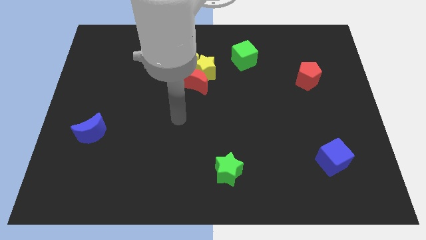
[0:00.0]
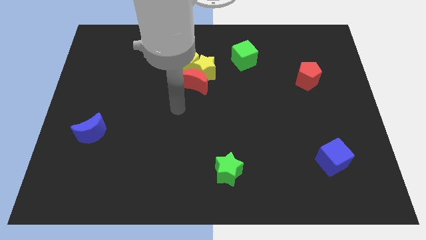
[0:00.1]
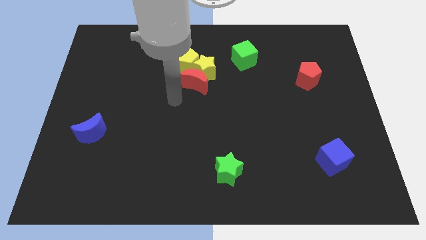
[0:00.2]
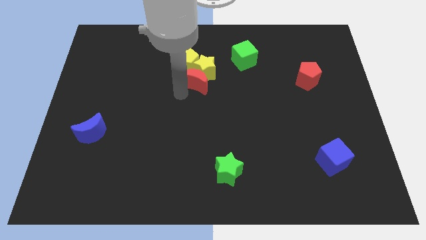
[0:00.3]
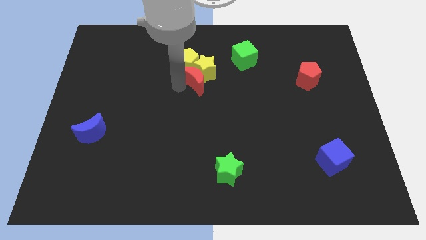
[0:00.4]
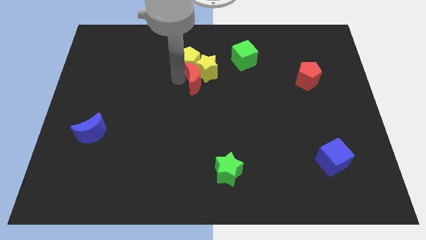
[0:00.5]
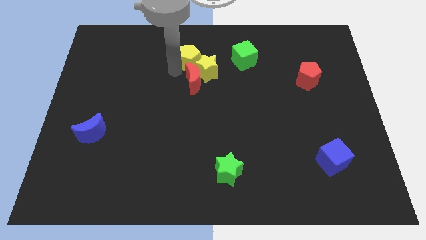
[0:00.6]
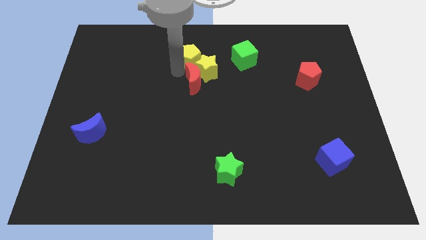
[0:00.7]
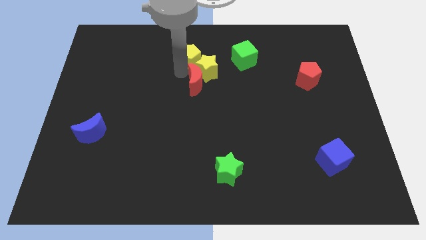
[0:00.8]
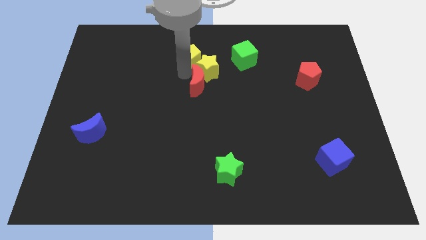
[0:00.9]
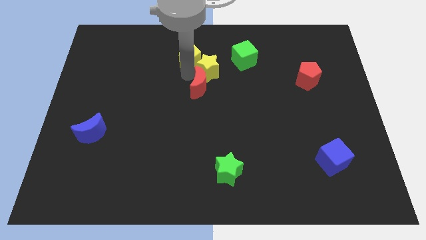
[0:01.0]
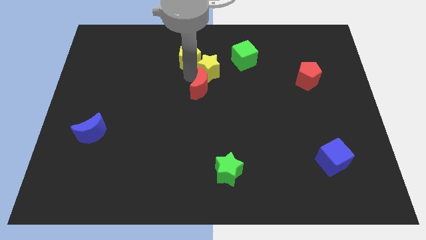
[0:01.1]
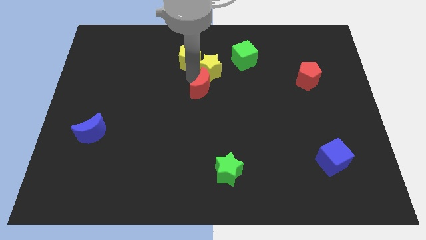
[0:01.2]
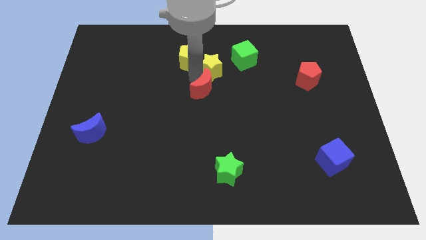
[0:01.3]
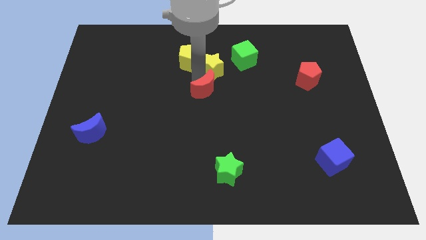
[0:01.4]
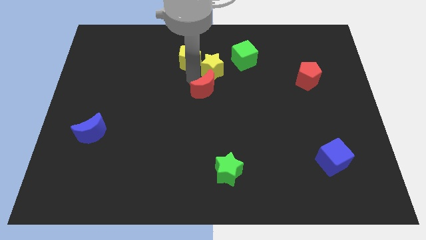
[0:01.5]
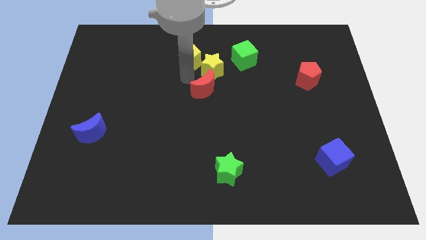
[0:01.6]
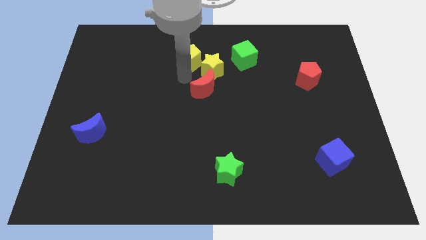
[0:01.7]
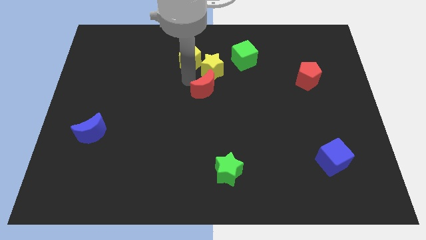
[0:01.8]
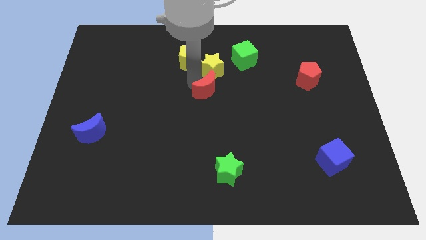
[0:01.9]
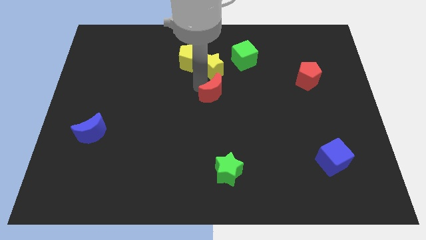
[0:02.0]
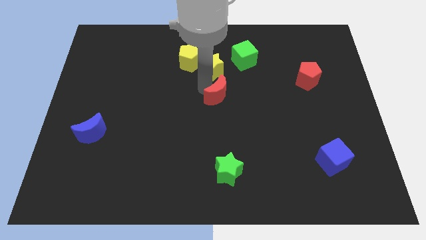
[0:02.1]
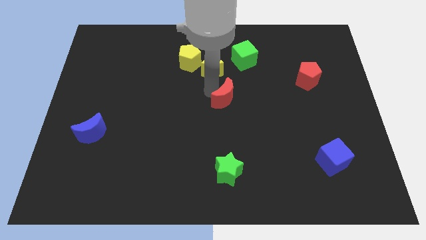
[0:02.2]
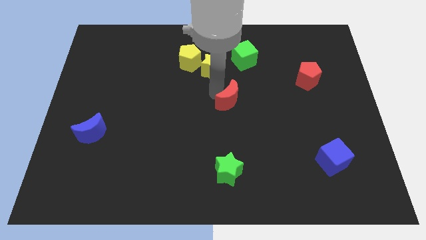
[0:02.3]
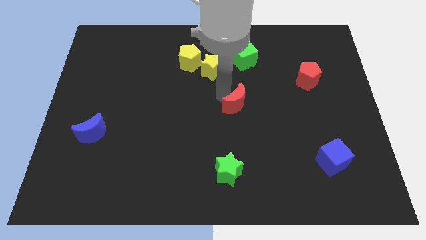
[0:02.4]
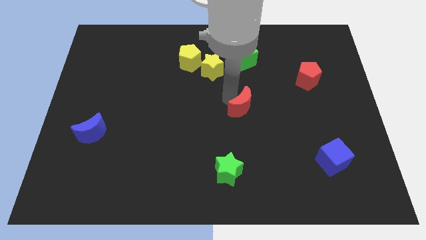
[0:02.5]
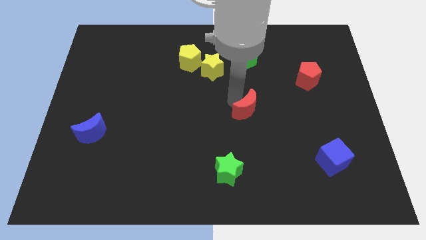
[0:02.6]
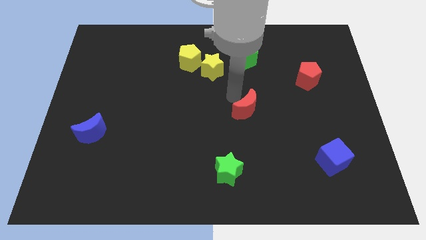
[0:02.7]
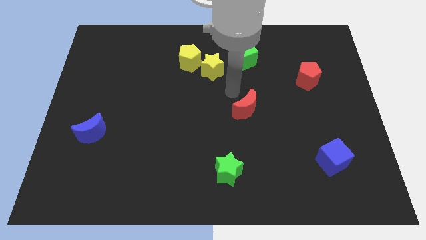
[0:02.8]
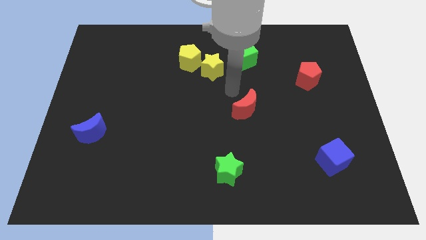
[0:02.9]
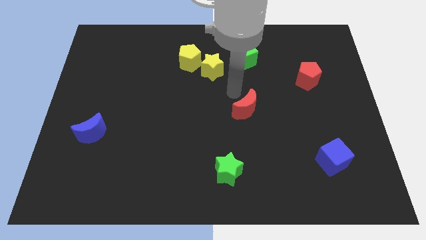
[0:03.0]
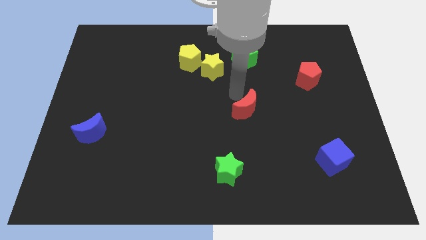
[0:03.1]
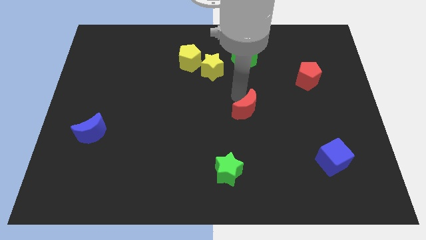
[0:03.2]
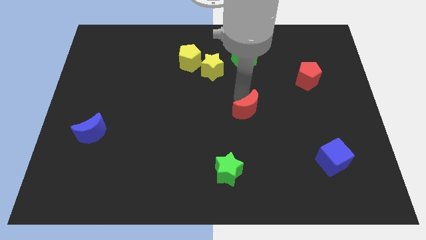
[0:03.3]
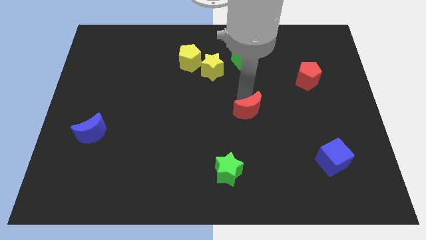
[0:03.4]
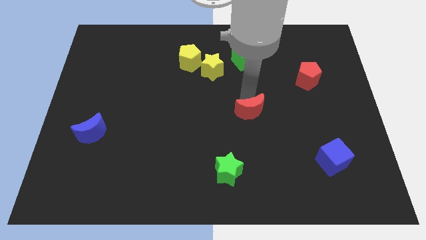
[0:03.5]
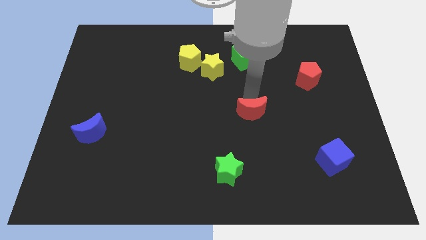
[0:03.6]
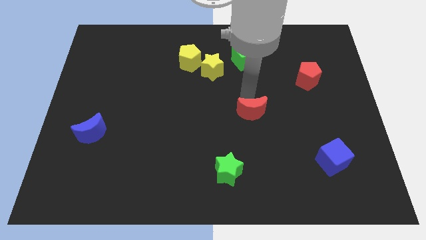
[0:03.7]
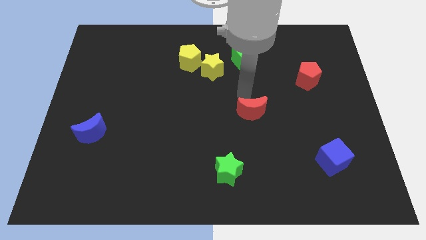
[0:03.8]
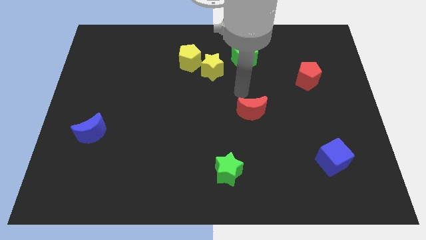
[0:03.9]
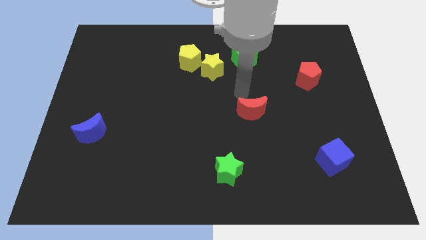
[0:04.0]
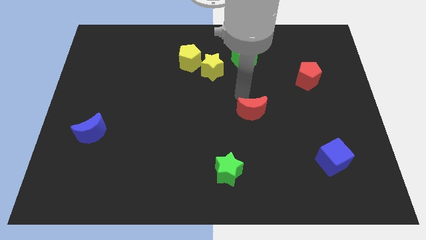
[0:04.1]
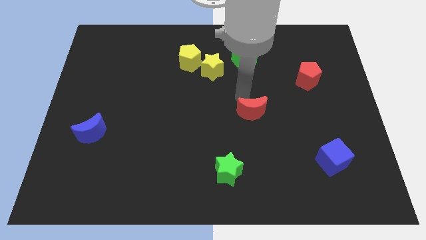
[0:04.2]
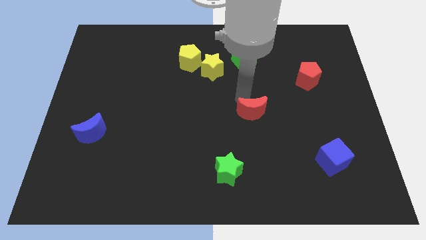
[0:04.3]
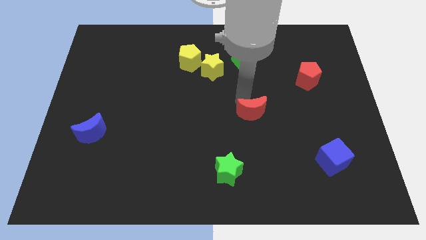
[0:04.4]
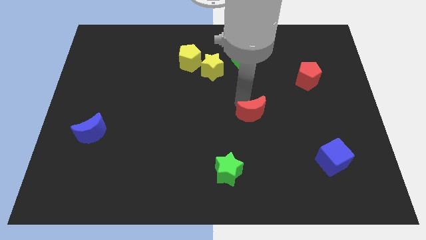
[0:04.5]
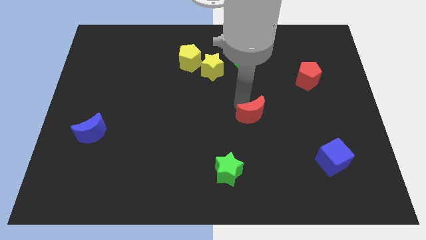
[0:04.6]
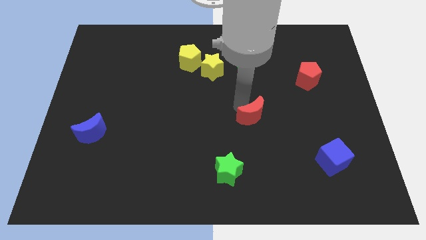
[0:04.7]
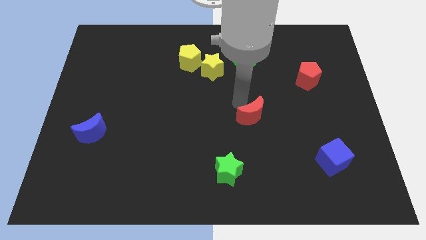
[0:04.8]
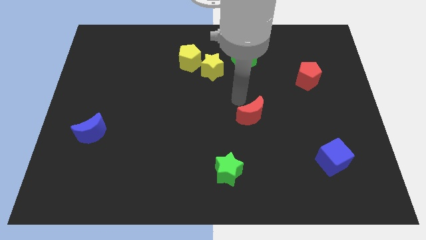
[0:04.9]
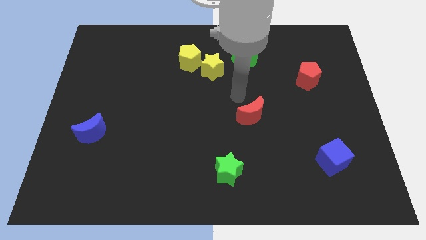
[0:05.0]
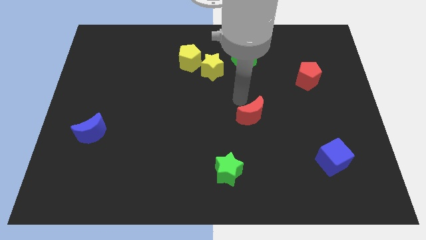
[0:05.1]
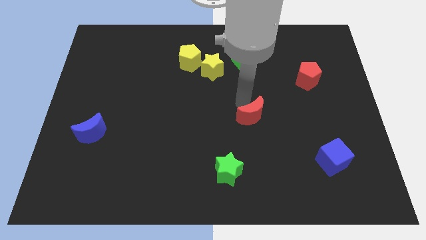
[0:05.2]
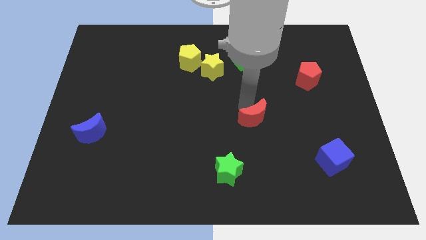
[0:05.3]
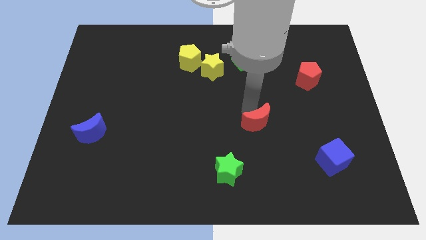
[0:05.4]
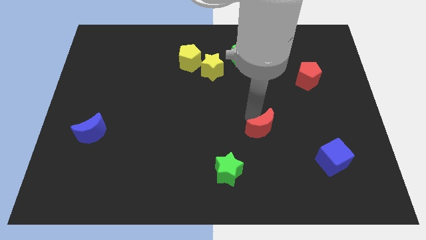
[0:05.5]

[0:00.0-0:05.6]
push the red moon down and then right

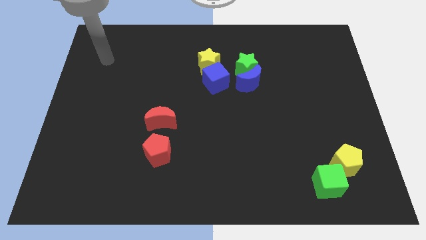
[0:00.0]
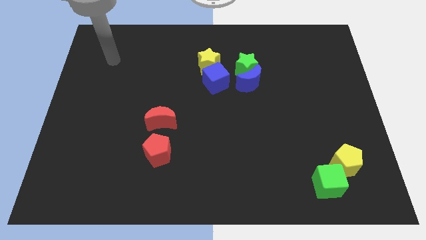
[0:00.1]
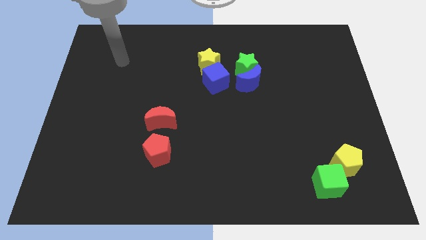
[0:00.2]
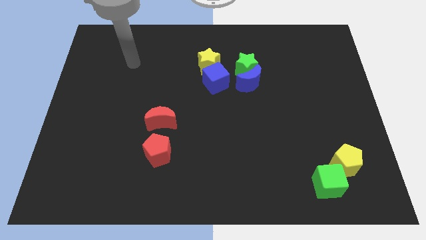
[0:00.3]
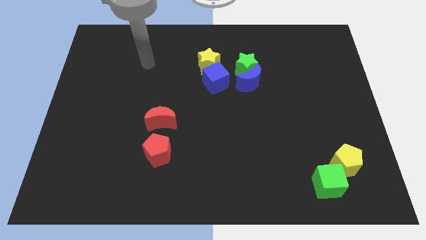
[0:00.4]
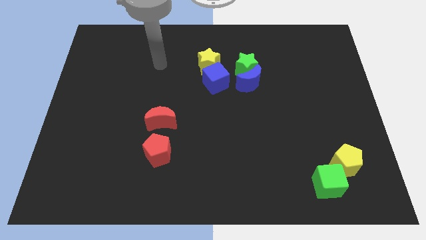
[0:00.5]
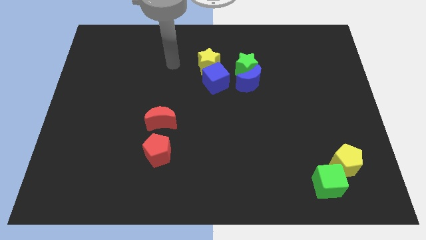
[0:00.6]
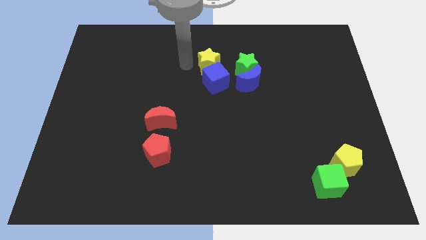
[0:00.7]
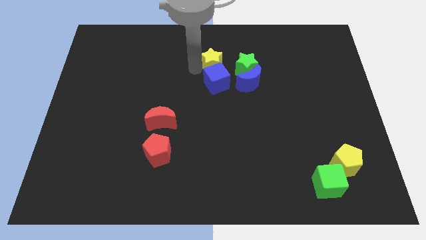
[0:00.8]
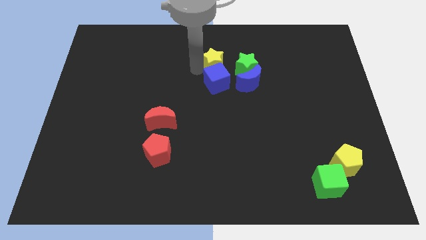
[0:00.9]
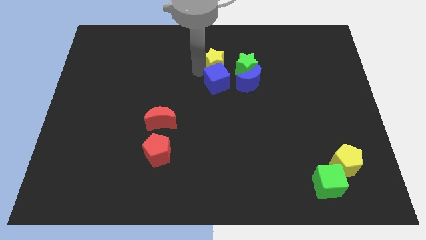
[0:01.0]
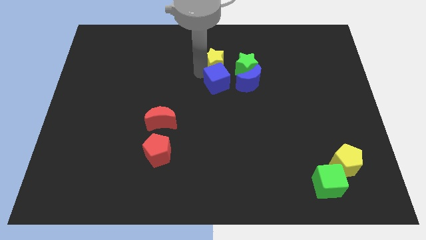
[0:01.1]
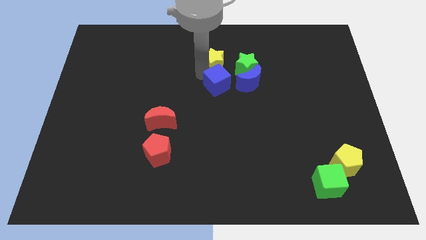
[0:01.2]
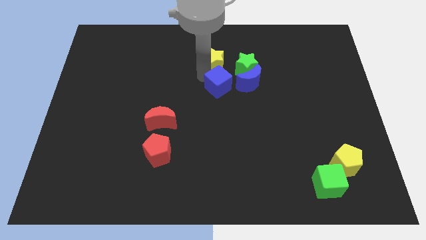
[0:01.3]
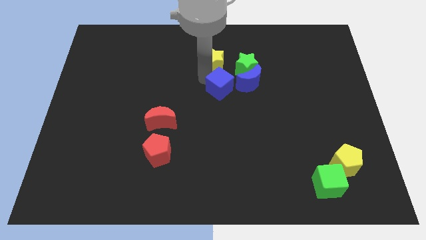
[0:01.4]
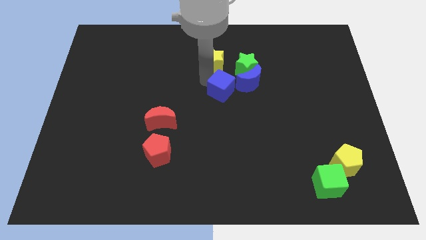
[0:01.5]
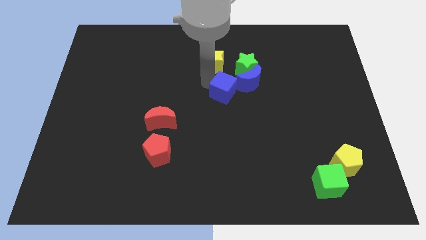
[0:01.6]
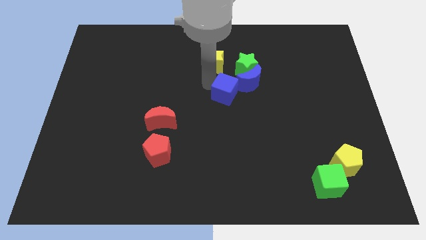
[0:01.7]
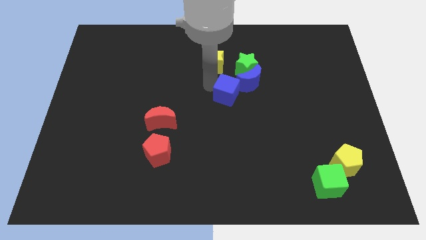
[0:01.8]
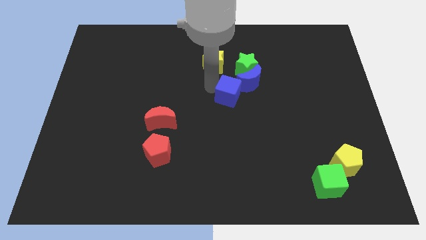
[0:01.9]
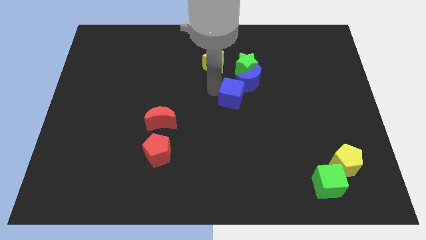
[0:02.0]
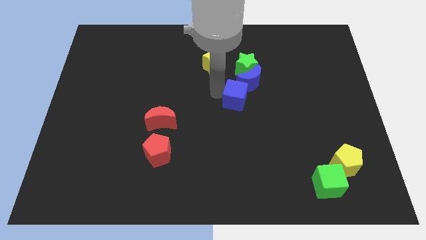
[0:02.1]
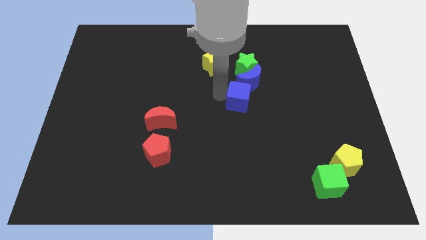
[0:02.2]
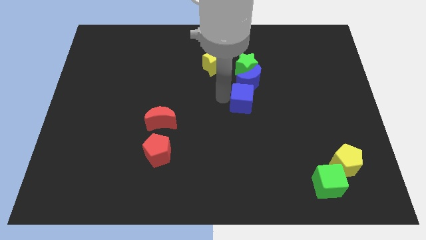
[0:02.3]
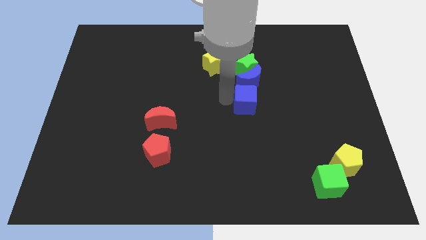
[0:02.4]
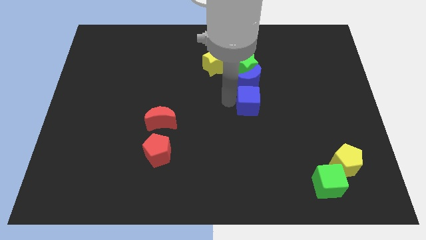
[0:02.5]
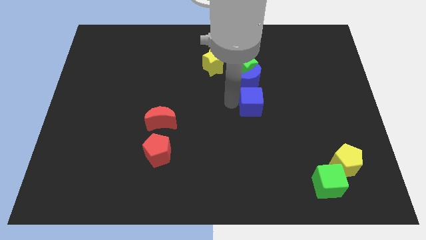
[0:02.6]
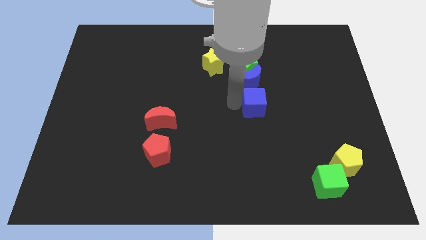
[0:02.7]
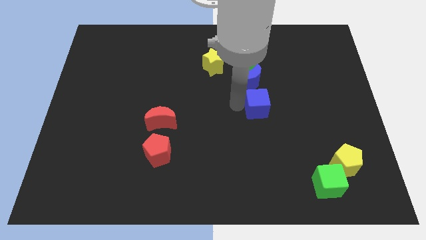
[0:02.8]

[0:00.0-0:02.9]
push the blue cube a little bit to the right
